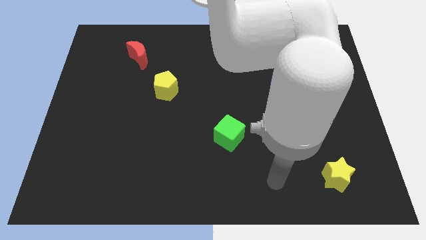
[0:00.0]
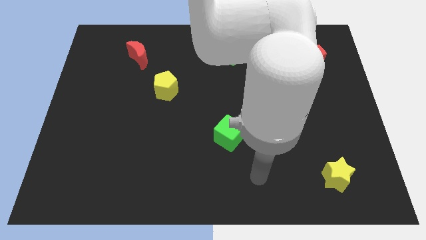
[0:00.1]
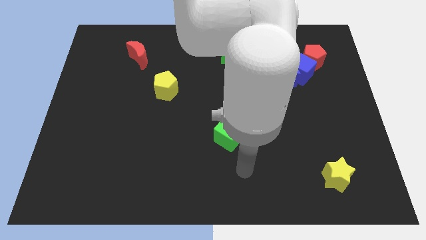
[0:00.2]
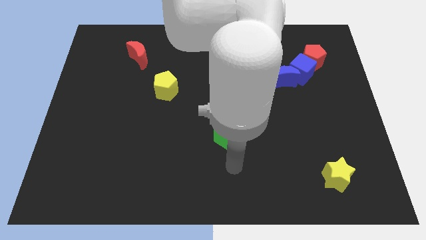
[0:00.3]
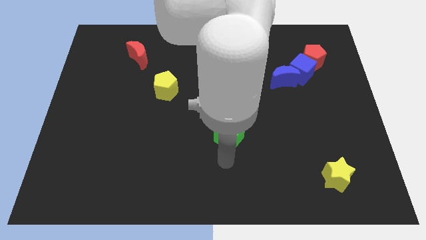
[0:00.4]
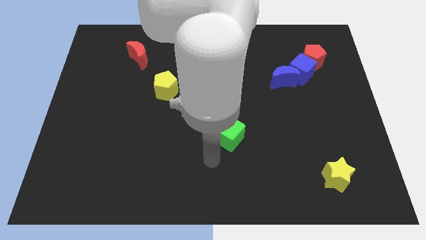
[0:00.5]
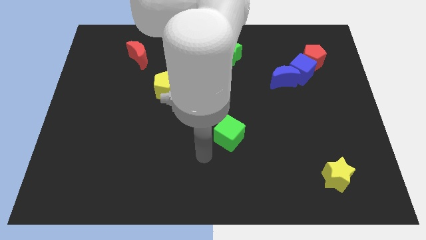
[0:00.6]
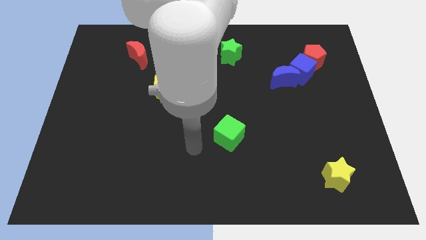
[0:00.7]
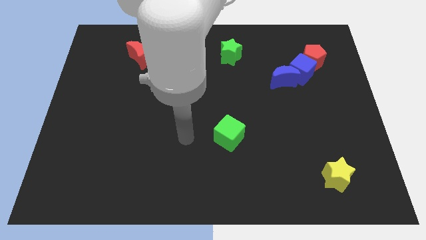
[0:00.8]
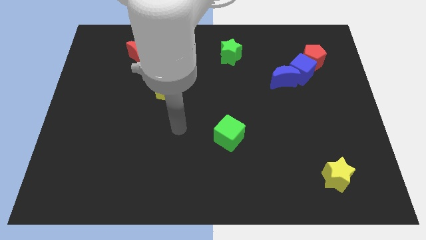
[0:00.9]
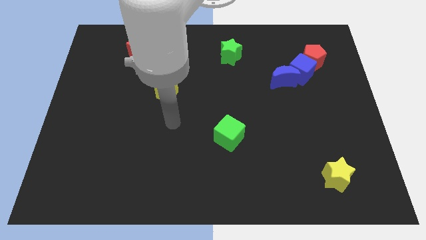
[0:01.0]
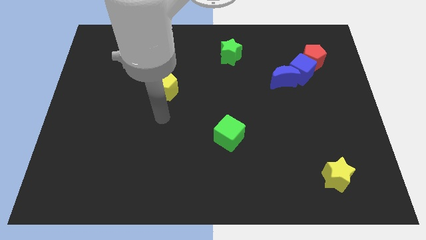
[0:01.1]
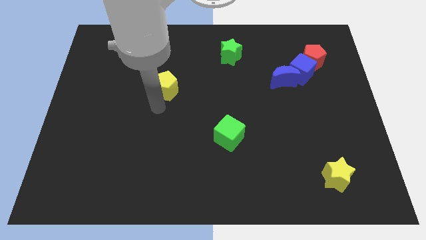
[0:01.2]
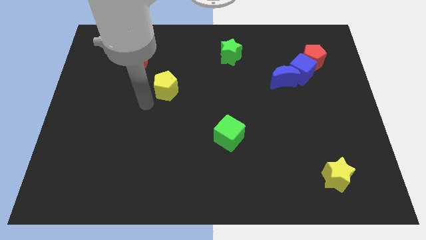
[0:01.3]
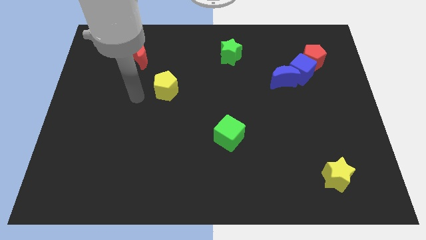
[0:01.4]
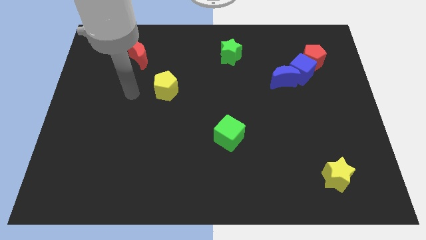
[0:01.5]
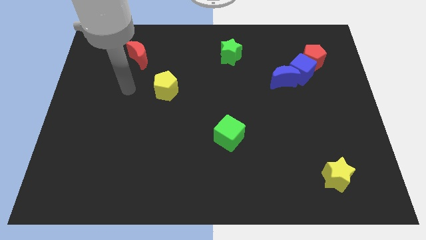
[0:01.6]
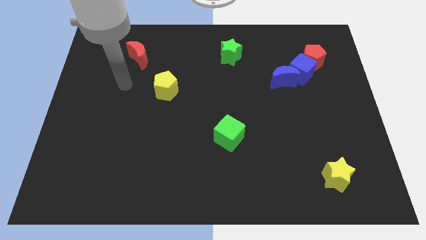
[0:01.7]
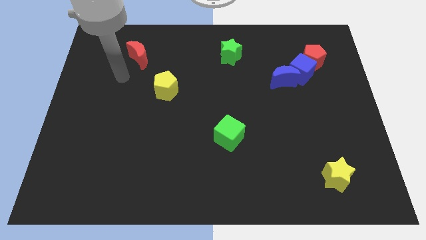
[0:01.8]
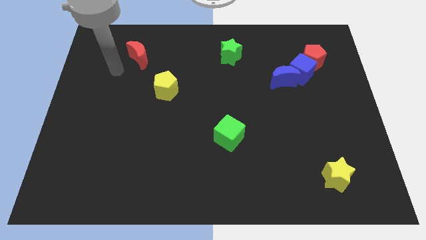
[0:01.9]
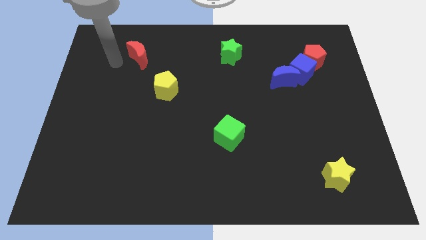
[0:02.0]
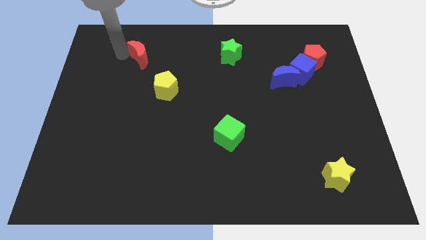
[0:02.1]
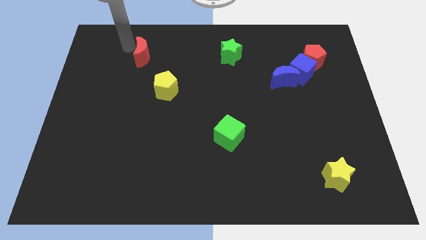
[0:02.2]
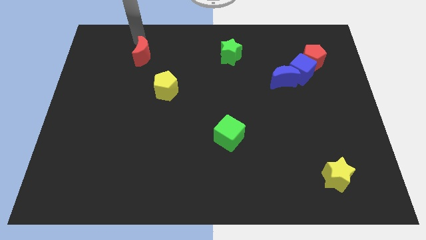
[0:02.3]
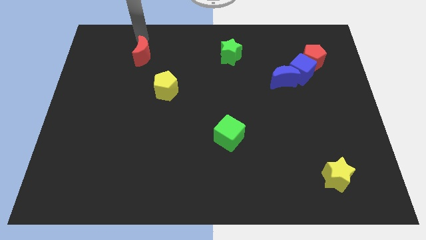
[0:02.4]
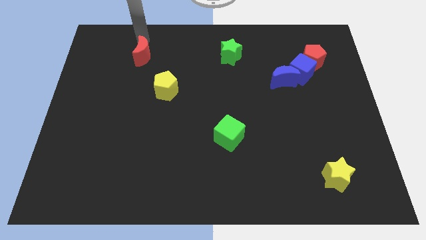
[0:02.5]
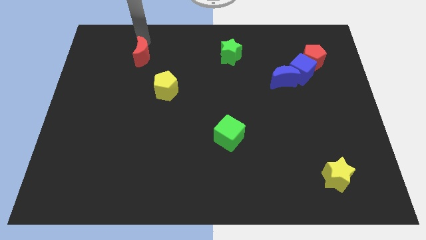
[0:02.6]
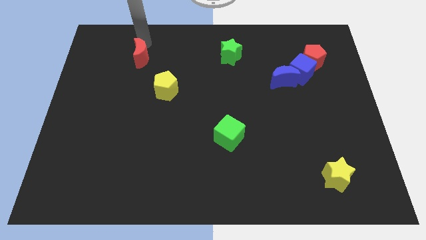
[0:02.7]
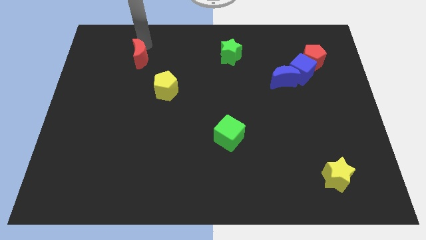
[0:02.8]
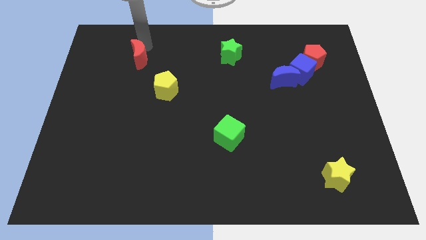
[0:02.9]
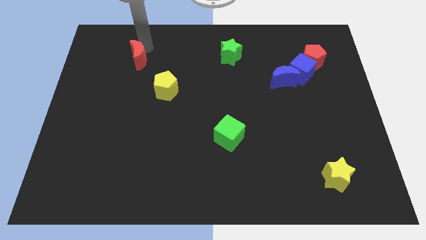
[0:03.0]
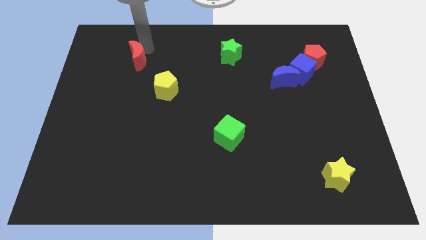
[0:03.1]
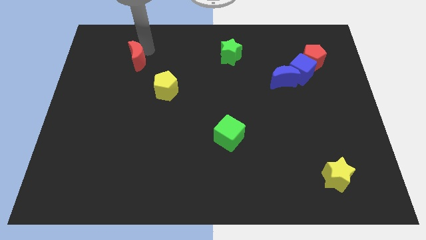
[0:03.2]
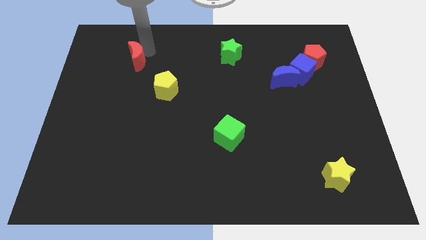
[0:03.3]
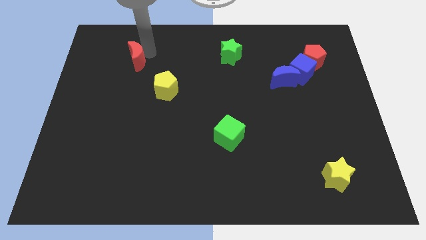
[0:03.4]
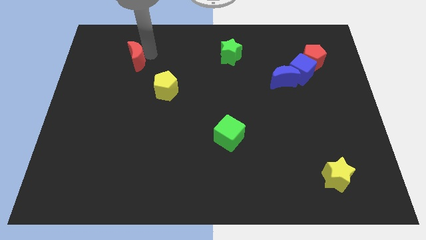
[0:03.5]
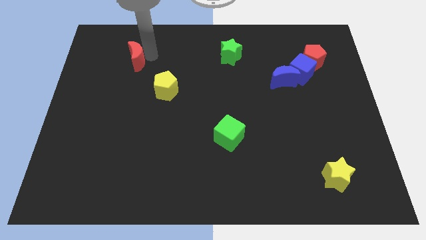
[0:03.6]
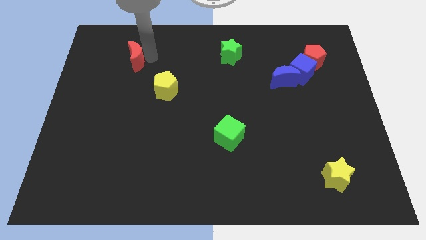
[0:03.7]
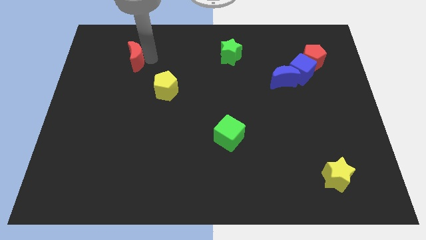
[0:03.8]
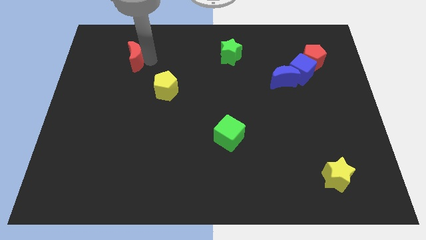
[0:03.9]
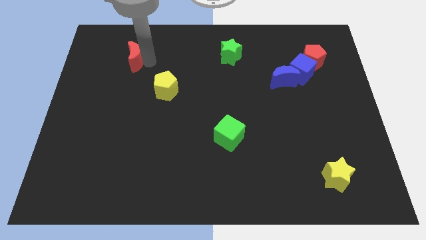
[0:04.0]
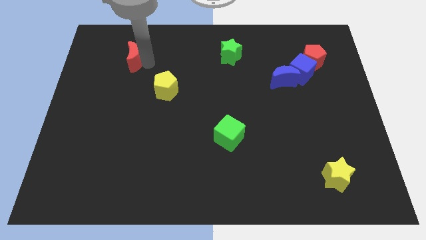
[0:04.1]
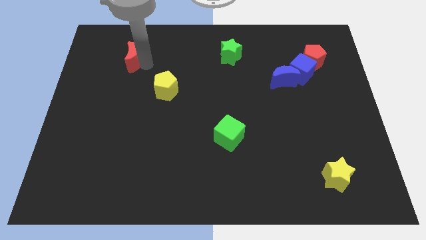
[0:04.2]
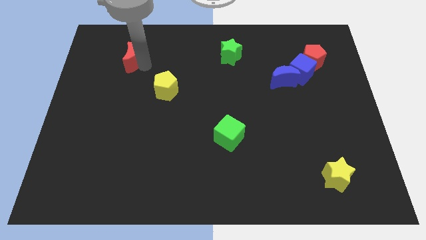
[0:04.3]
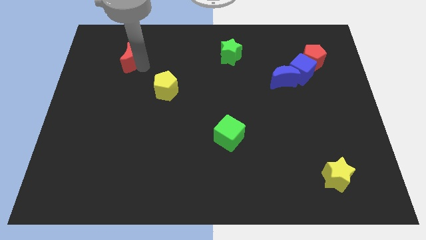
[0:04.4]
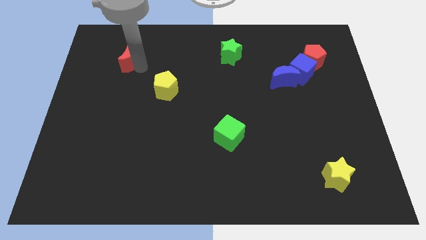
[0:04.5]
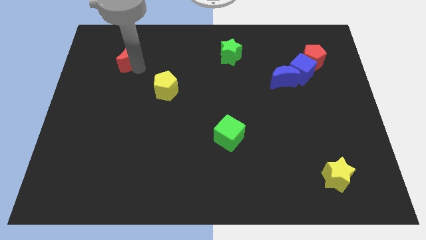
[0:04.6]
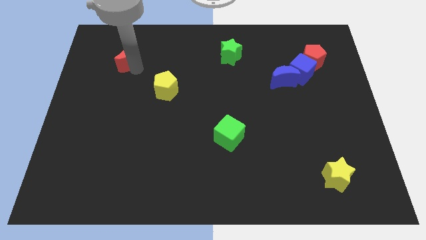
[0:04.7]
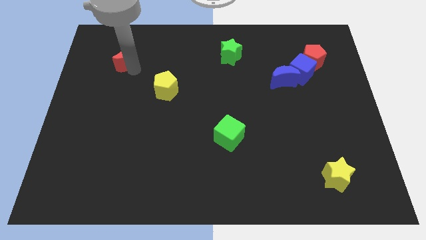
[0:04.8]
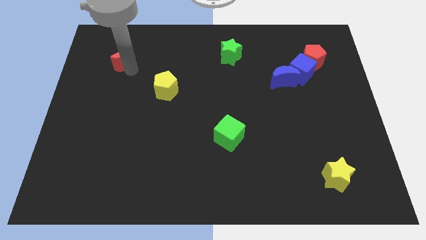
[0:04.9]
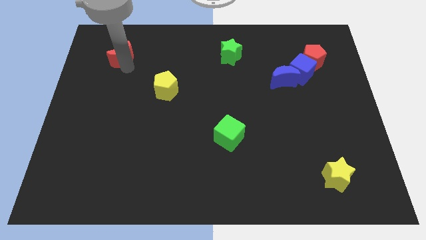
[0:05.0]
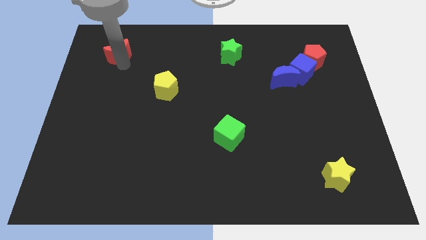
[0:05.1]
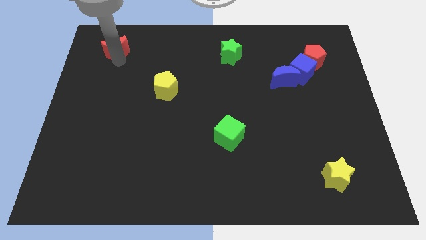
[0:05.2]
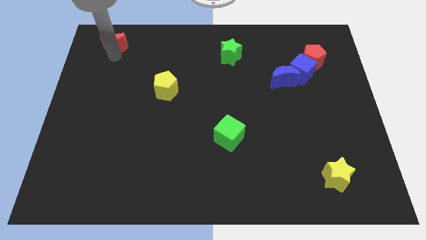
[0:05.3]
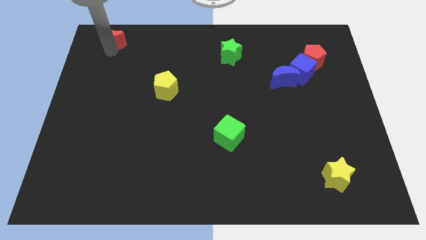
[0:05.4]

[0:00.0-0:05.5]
slide the red moon to the top left of the board

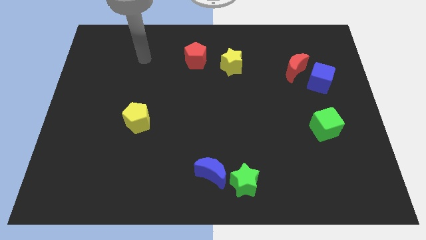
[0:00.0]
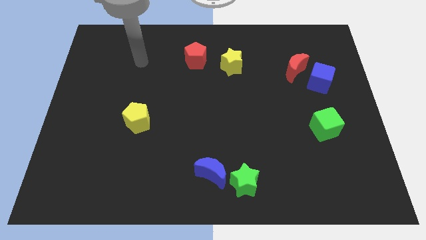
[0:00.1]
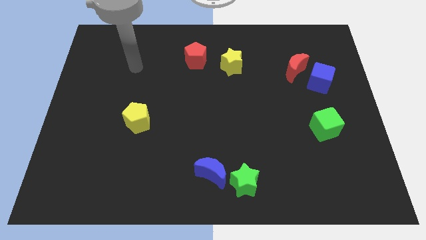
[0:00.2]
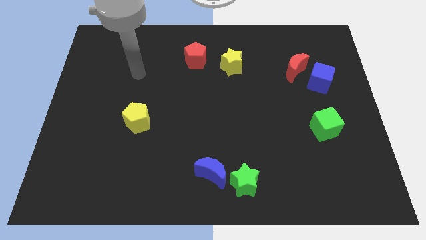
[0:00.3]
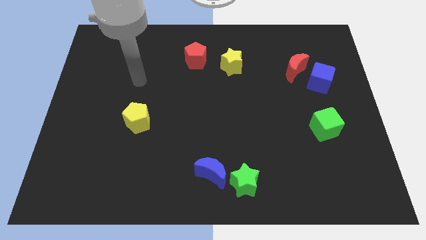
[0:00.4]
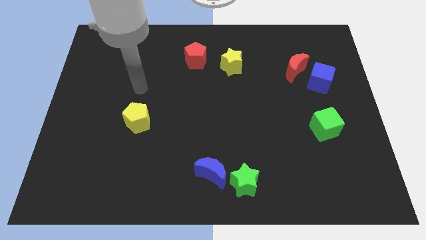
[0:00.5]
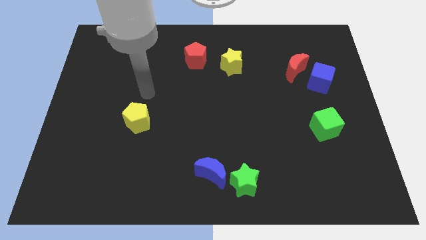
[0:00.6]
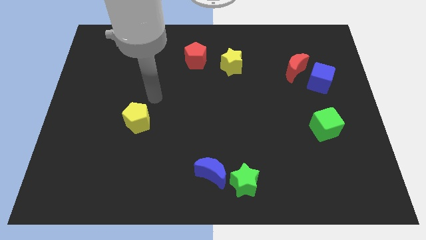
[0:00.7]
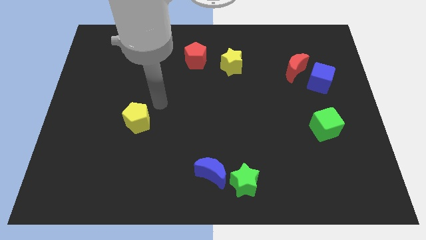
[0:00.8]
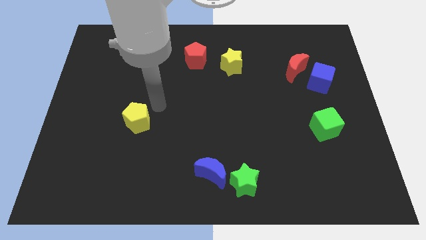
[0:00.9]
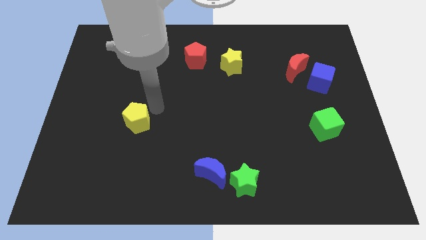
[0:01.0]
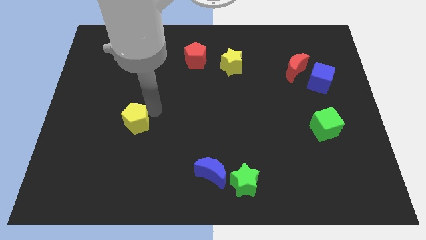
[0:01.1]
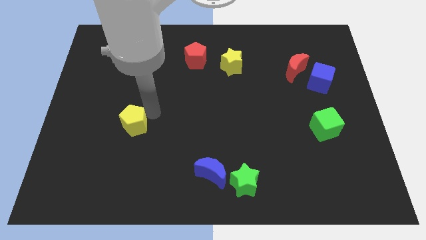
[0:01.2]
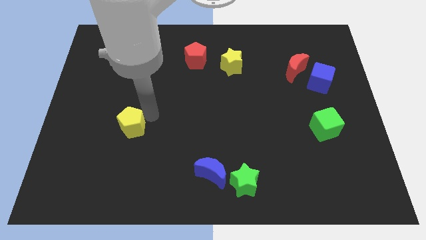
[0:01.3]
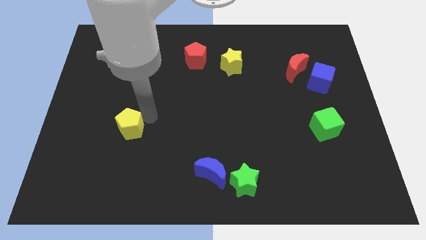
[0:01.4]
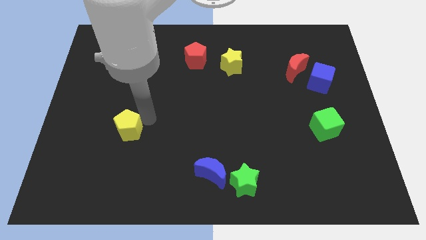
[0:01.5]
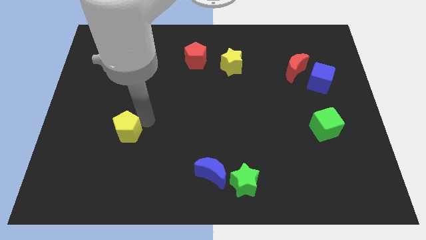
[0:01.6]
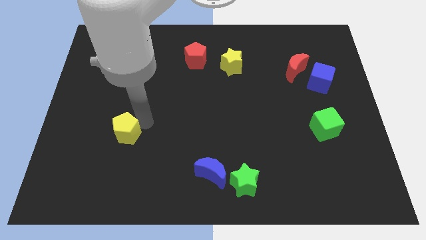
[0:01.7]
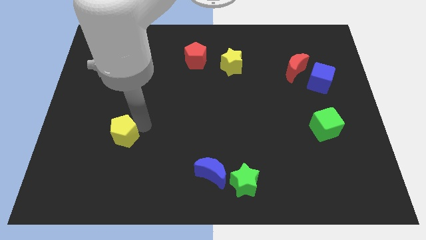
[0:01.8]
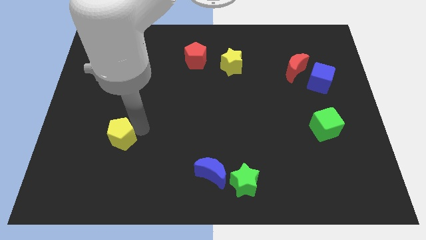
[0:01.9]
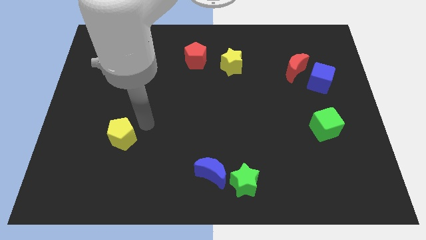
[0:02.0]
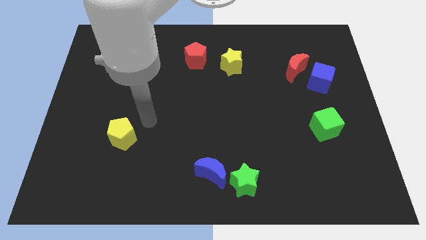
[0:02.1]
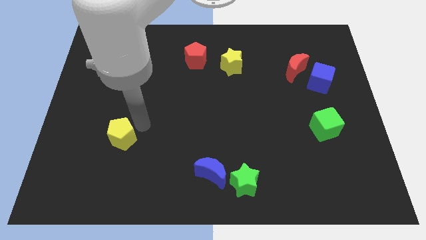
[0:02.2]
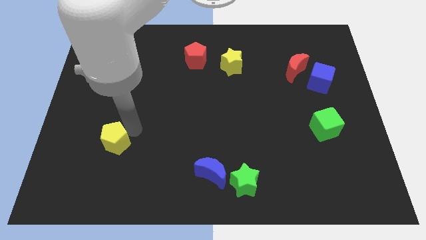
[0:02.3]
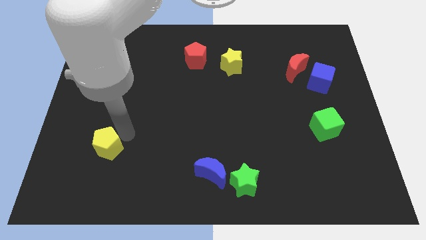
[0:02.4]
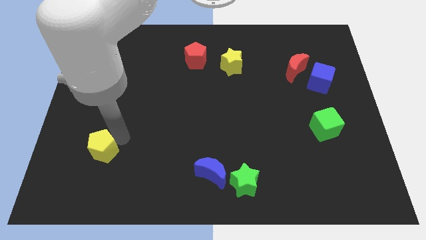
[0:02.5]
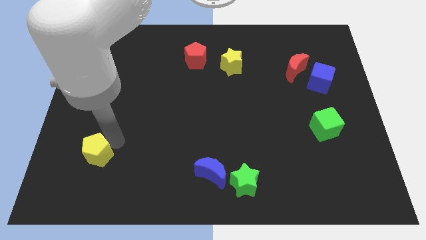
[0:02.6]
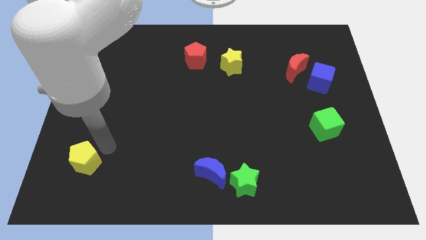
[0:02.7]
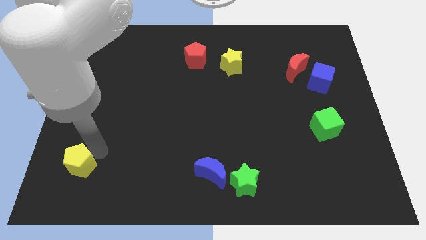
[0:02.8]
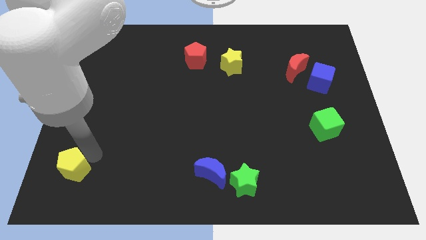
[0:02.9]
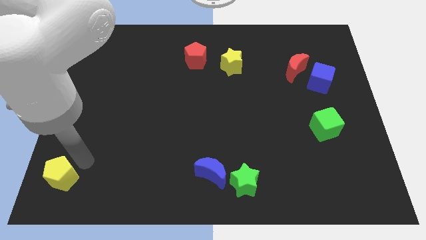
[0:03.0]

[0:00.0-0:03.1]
move the yellow pentagon to the bottom left corner
